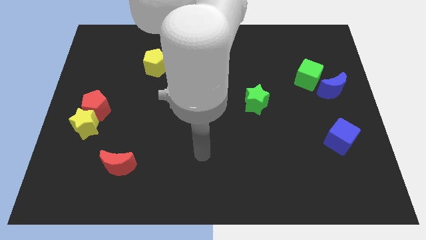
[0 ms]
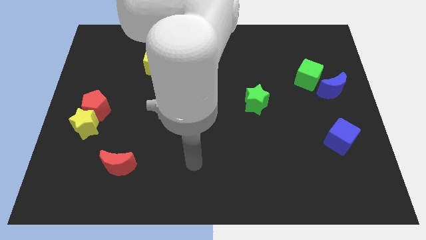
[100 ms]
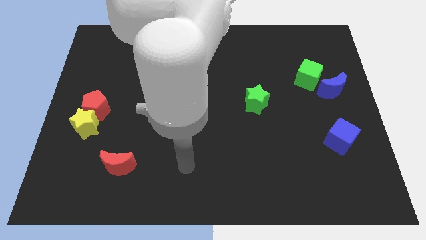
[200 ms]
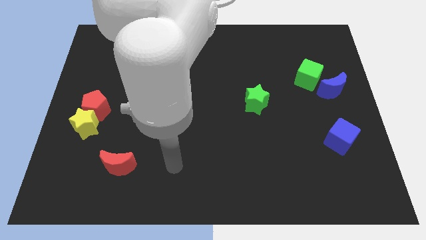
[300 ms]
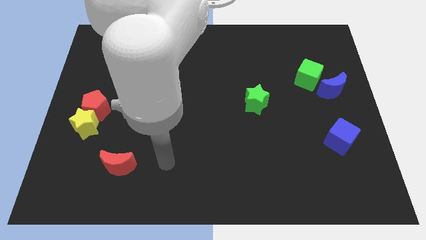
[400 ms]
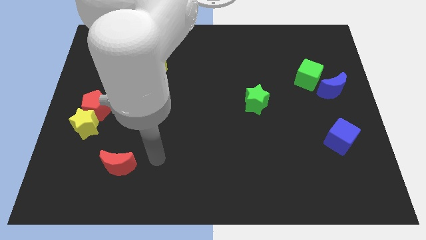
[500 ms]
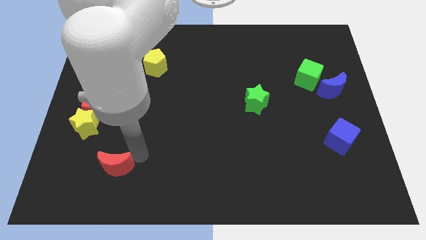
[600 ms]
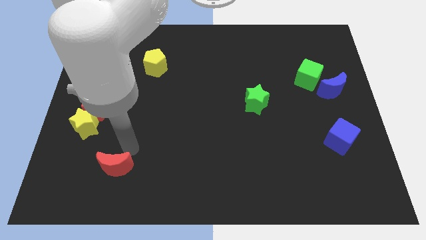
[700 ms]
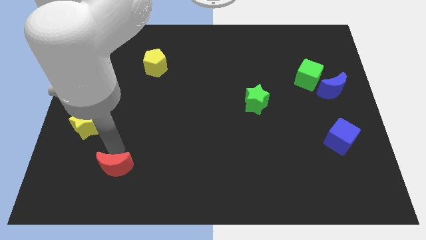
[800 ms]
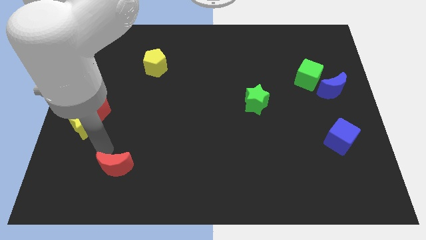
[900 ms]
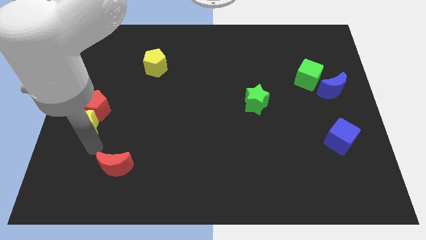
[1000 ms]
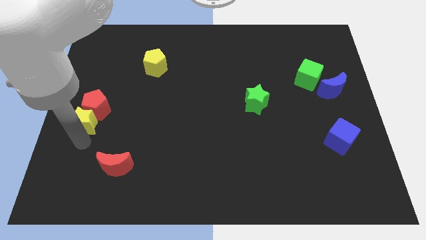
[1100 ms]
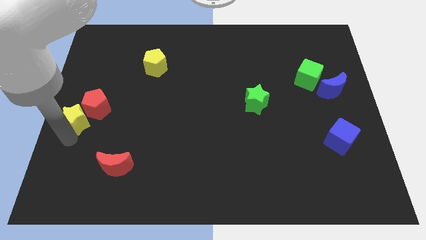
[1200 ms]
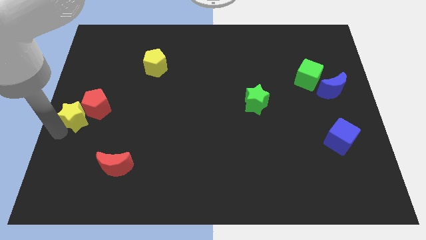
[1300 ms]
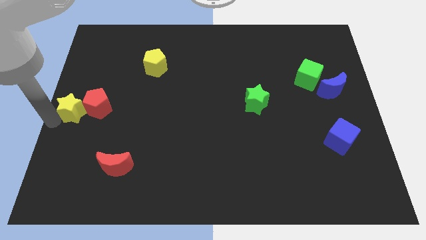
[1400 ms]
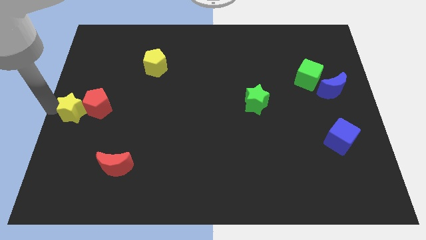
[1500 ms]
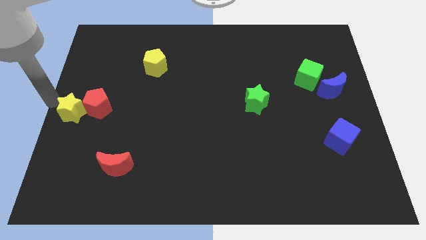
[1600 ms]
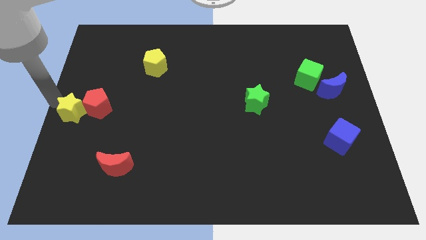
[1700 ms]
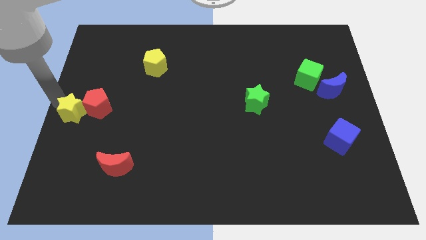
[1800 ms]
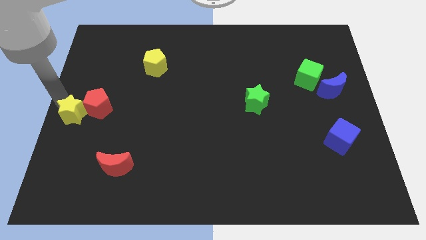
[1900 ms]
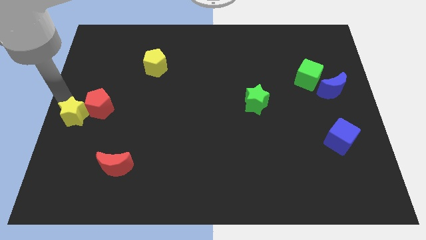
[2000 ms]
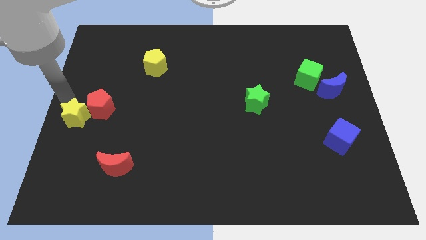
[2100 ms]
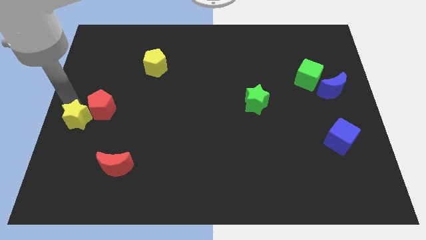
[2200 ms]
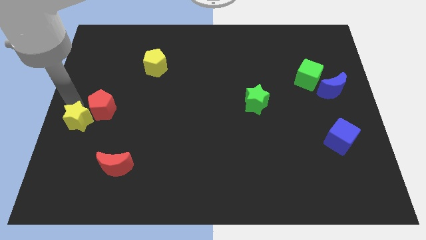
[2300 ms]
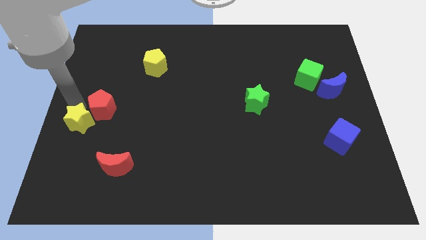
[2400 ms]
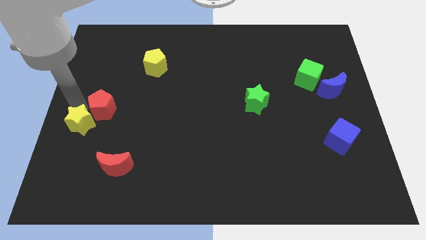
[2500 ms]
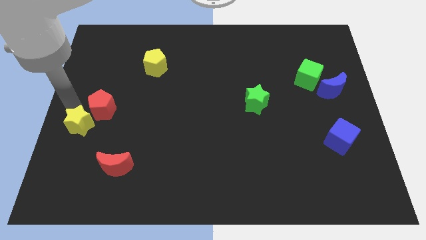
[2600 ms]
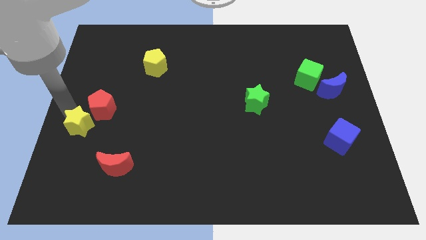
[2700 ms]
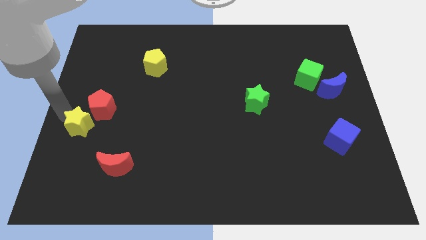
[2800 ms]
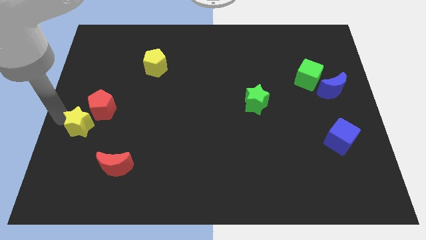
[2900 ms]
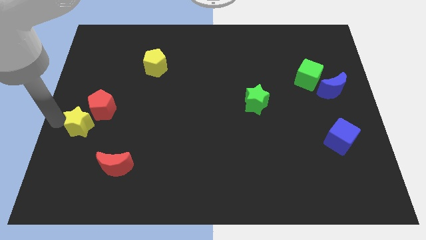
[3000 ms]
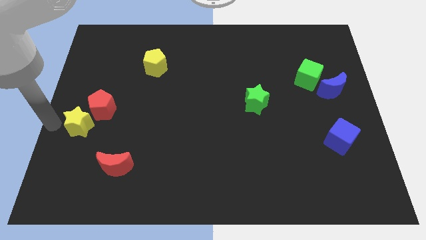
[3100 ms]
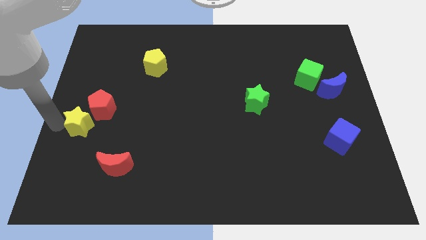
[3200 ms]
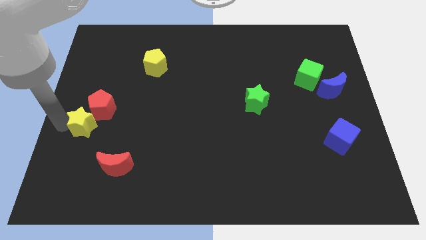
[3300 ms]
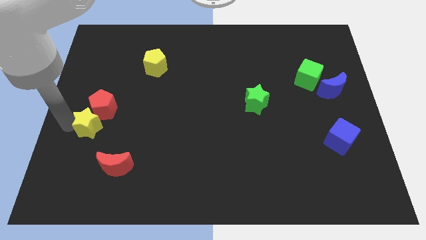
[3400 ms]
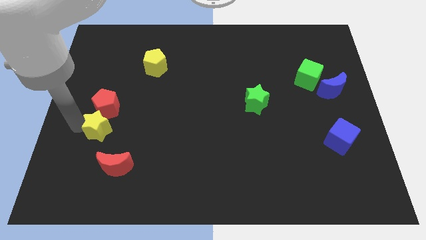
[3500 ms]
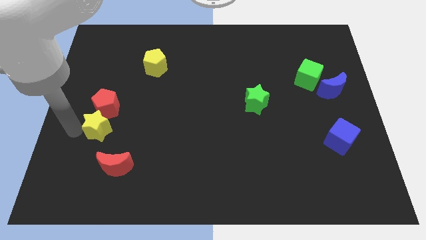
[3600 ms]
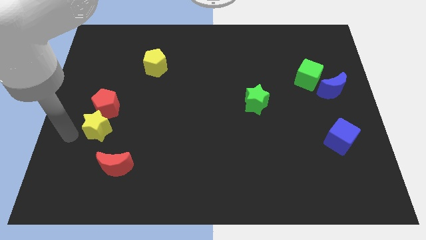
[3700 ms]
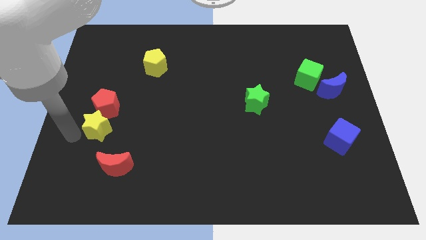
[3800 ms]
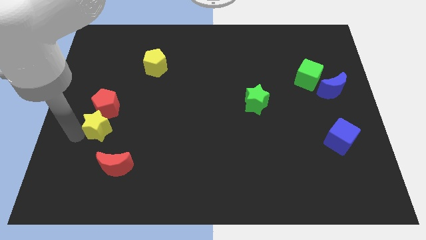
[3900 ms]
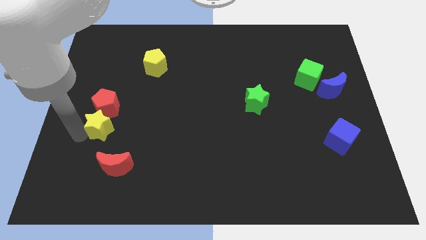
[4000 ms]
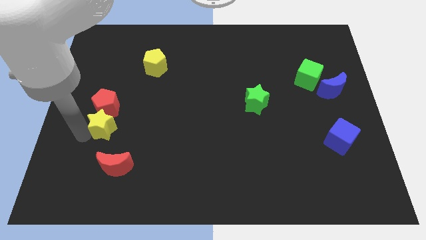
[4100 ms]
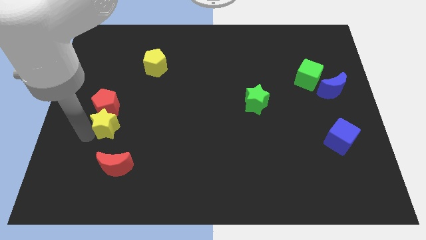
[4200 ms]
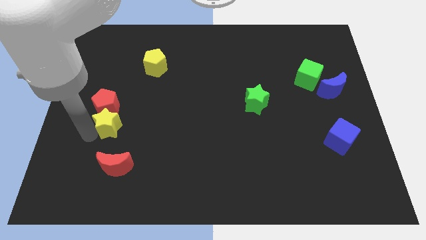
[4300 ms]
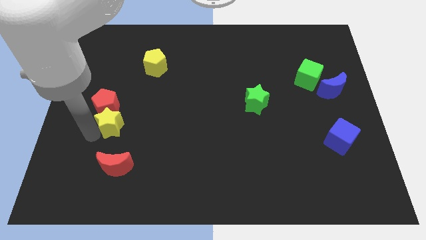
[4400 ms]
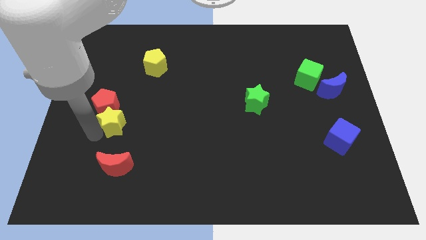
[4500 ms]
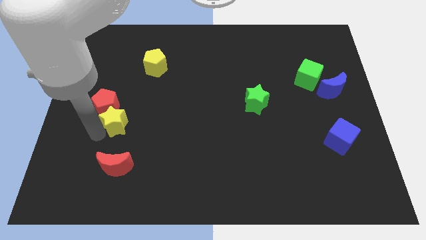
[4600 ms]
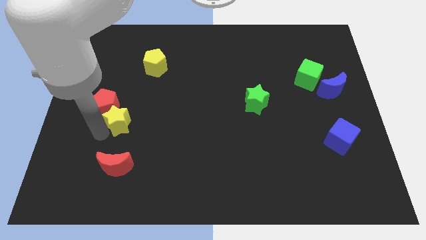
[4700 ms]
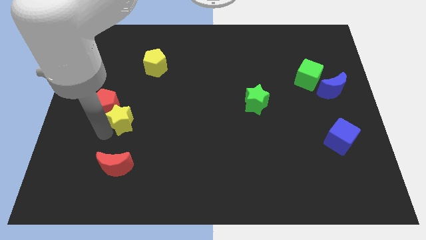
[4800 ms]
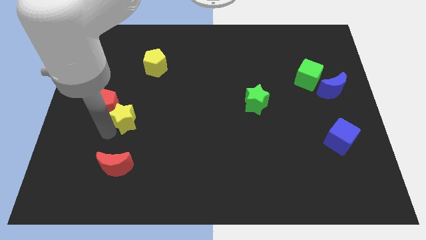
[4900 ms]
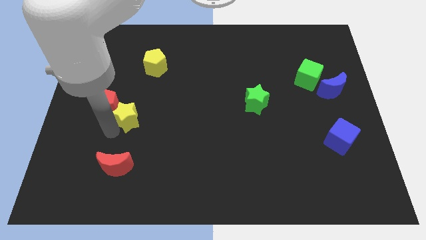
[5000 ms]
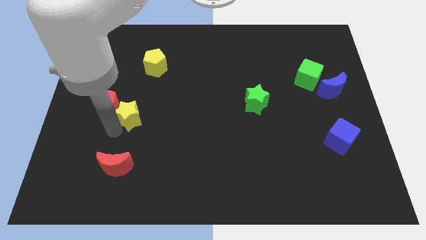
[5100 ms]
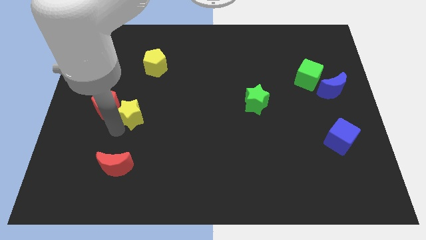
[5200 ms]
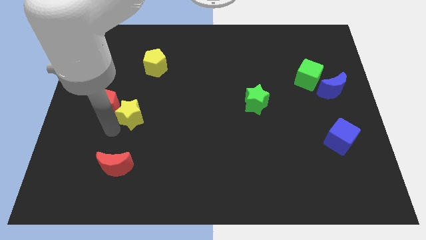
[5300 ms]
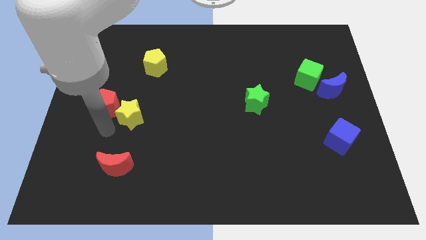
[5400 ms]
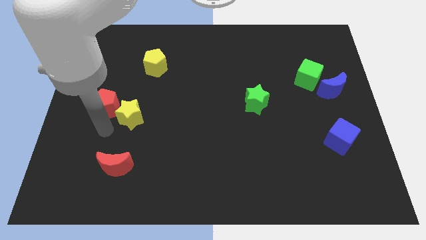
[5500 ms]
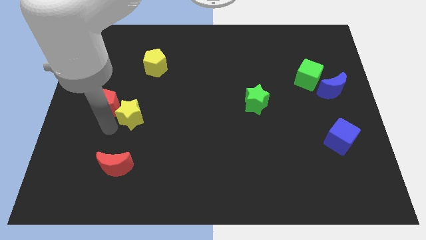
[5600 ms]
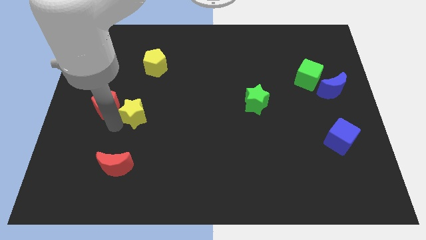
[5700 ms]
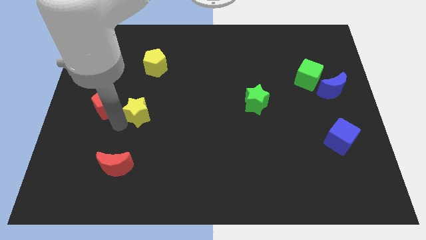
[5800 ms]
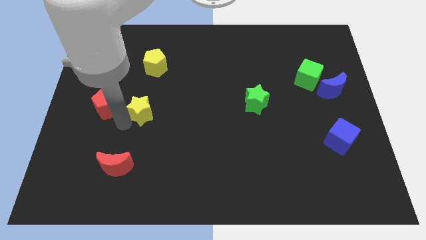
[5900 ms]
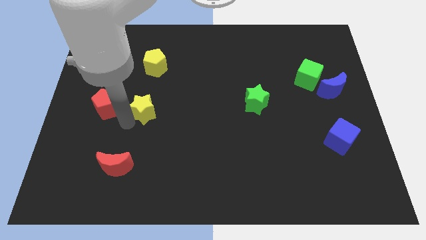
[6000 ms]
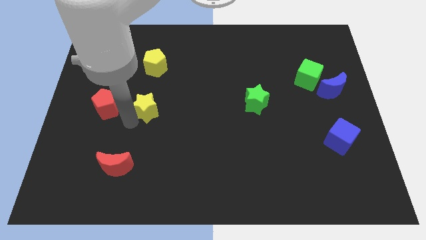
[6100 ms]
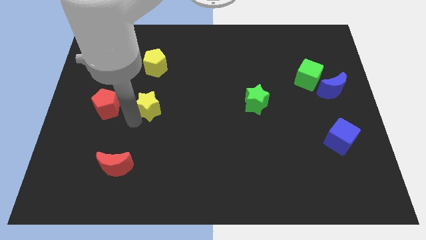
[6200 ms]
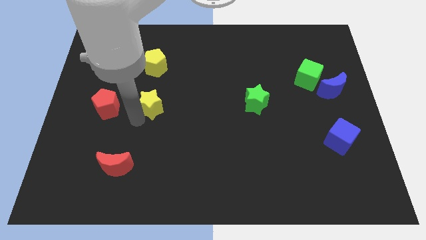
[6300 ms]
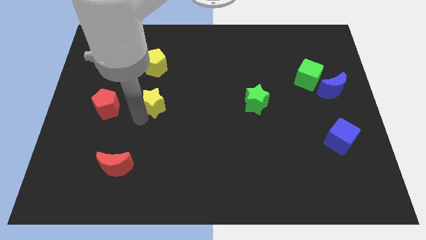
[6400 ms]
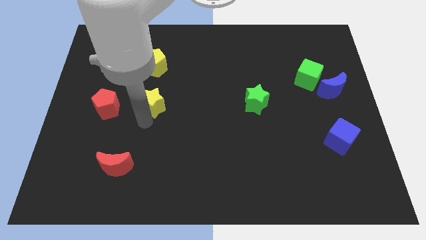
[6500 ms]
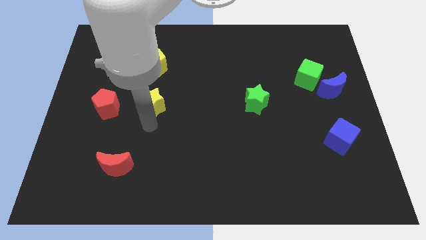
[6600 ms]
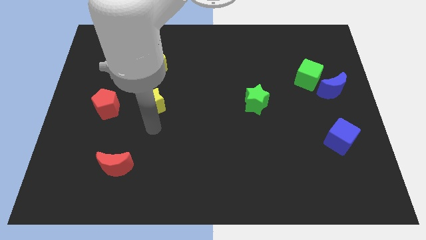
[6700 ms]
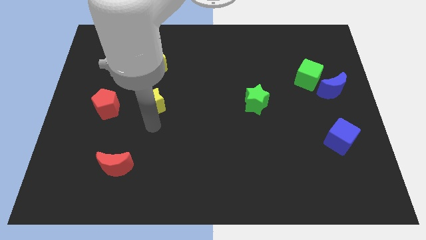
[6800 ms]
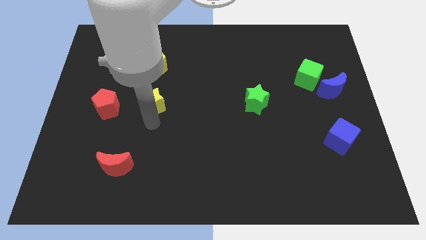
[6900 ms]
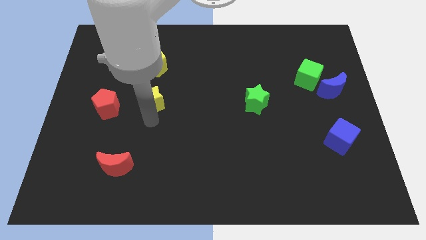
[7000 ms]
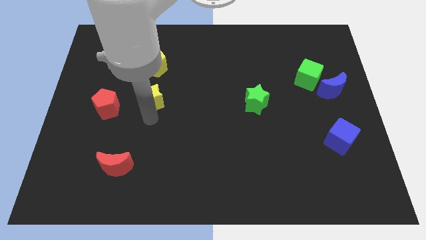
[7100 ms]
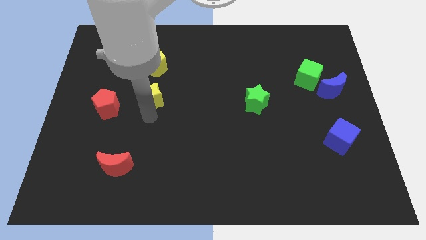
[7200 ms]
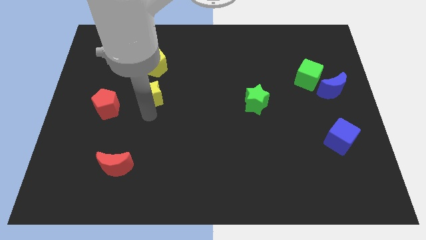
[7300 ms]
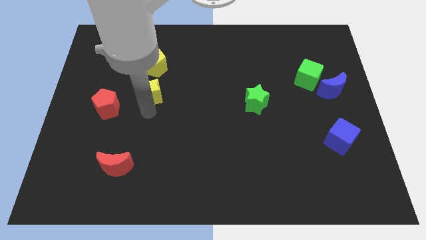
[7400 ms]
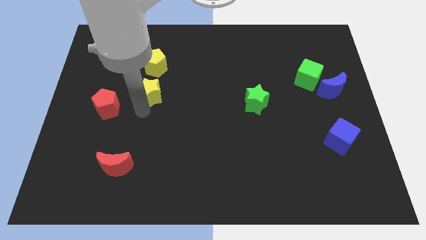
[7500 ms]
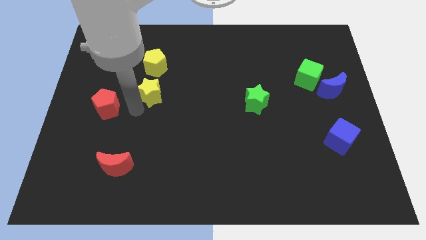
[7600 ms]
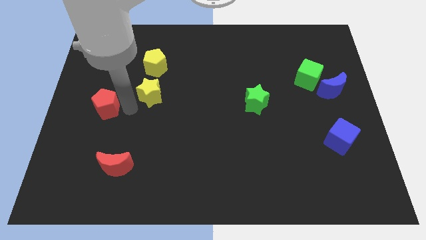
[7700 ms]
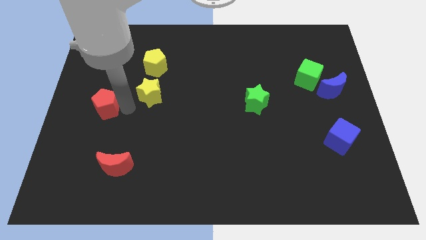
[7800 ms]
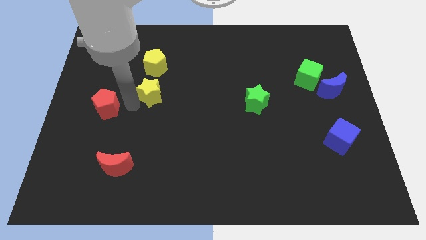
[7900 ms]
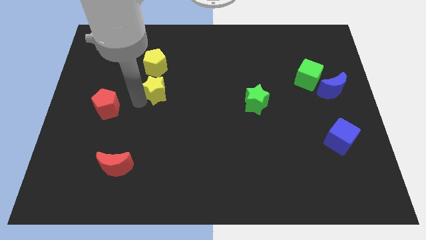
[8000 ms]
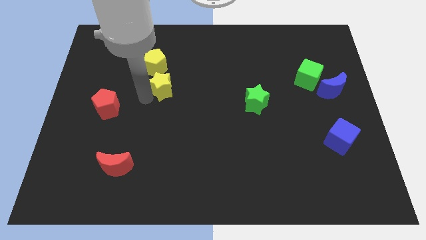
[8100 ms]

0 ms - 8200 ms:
put the yellow star to the bottom right of the yellow pentagon
